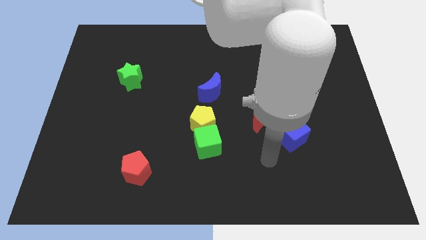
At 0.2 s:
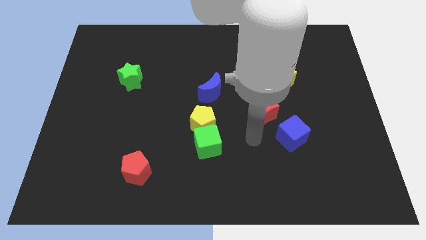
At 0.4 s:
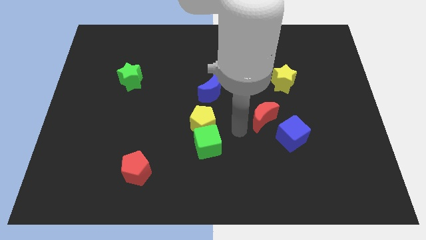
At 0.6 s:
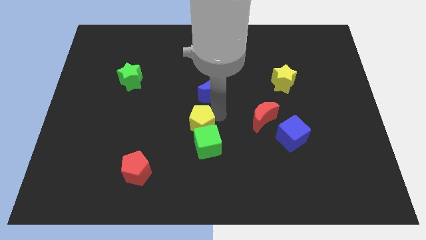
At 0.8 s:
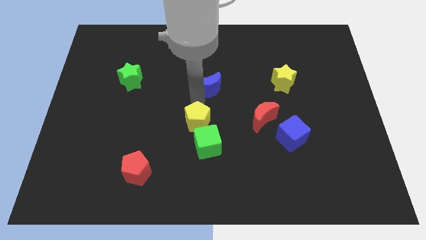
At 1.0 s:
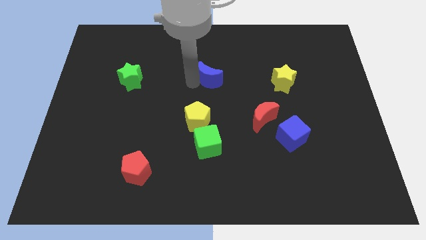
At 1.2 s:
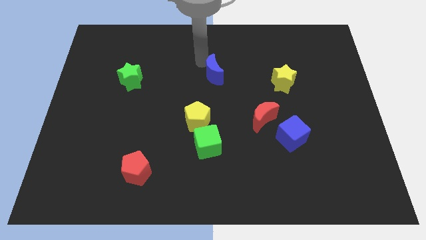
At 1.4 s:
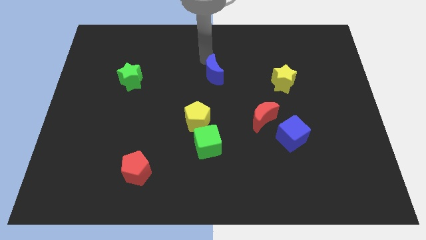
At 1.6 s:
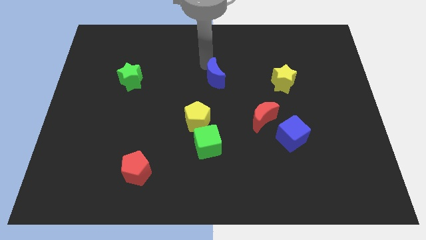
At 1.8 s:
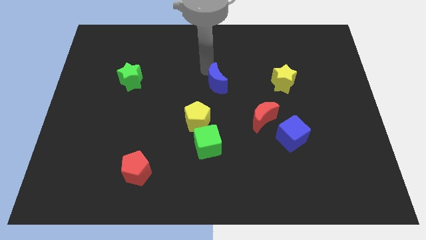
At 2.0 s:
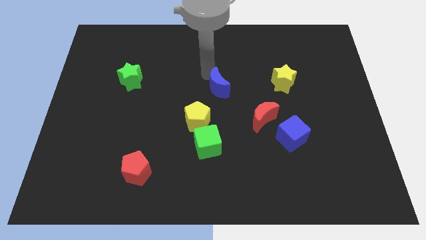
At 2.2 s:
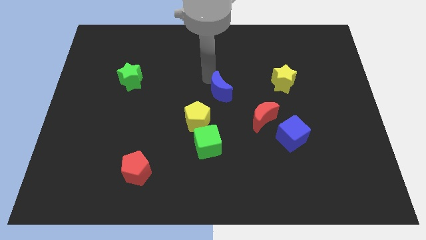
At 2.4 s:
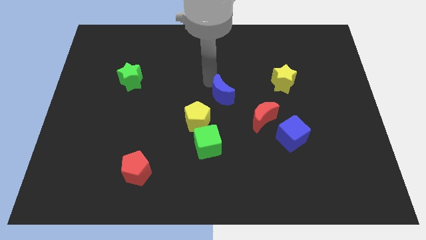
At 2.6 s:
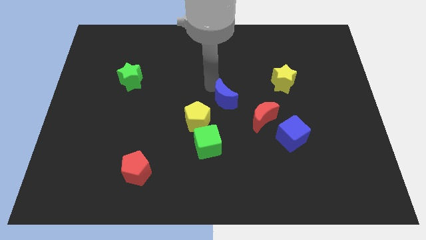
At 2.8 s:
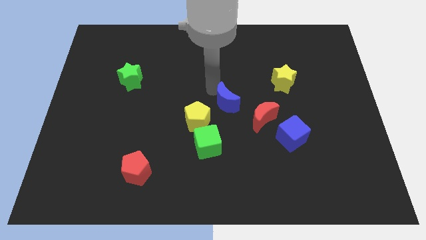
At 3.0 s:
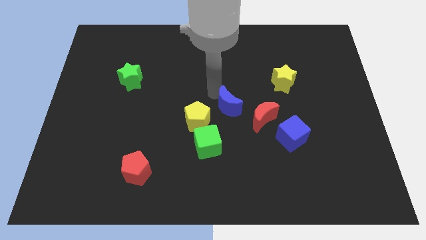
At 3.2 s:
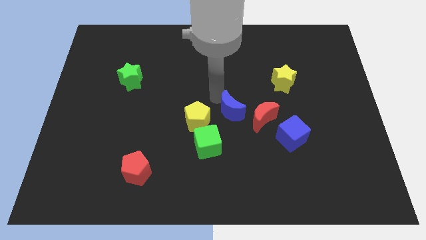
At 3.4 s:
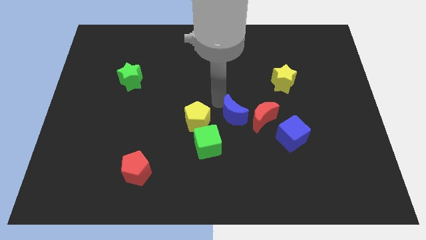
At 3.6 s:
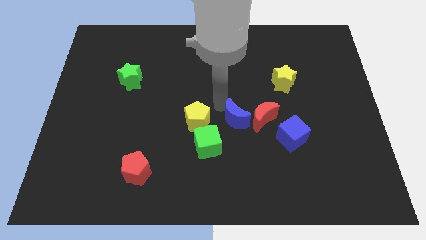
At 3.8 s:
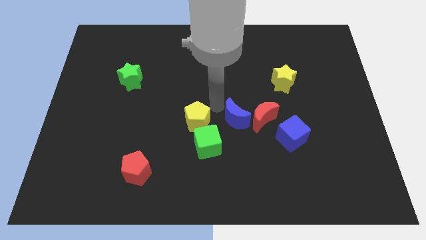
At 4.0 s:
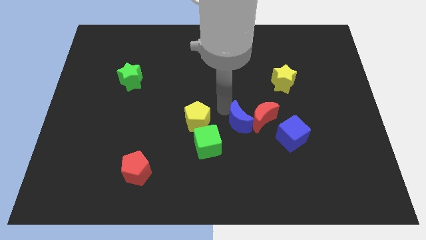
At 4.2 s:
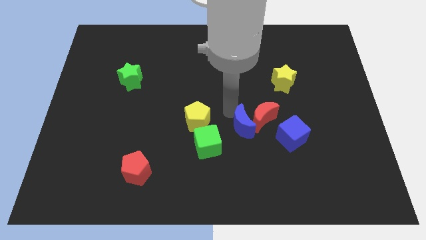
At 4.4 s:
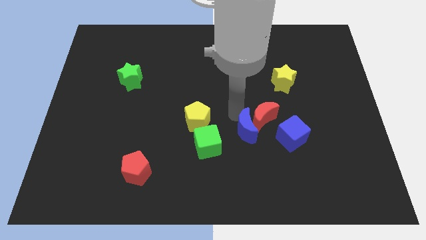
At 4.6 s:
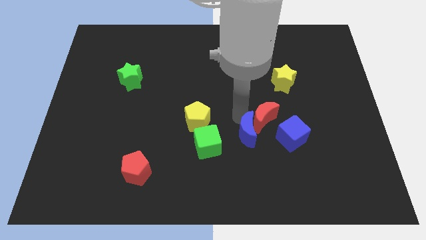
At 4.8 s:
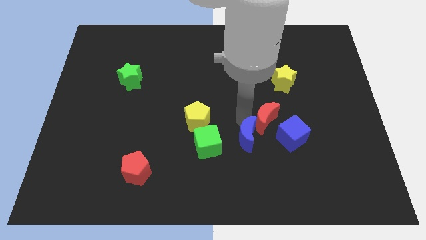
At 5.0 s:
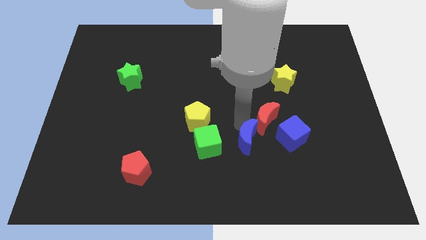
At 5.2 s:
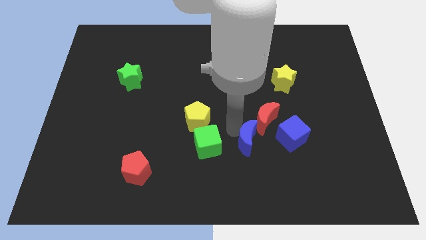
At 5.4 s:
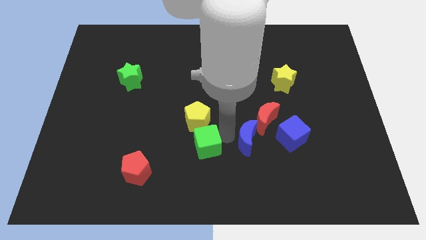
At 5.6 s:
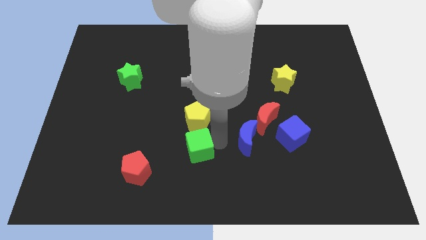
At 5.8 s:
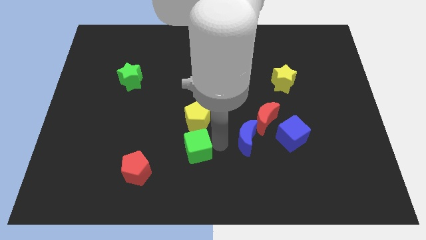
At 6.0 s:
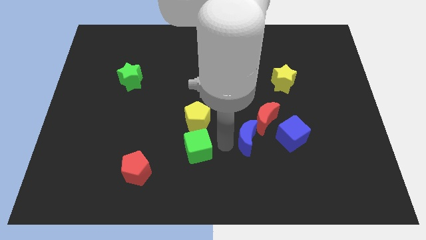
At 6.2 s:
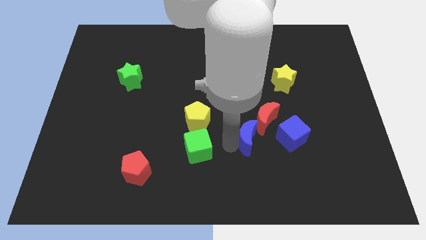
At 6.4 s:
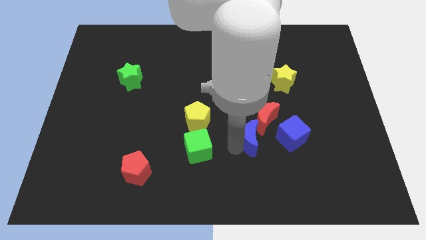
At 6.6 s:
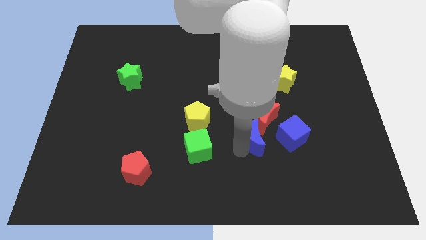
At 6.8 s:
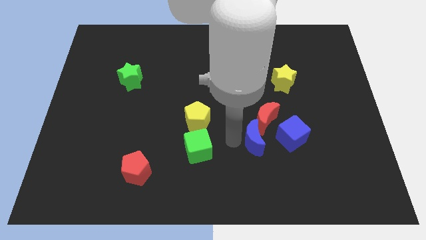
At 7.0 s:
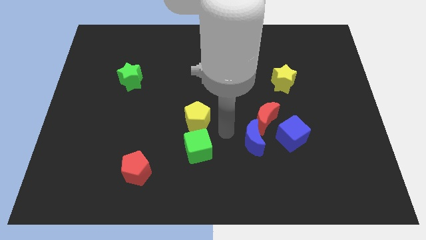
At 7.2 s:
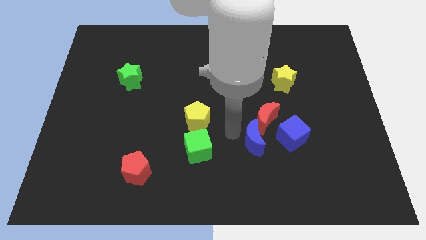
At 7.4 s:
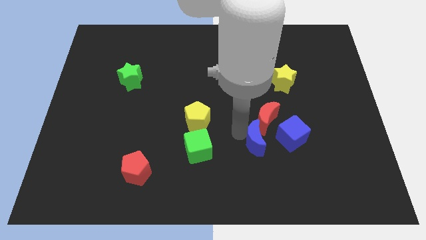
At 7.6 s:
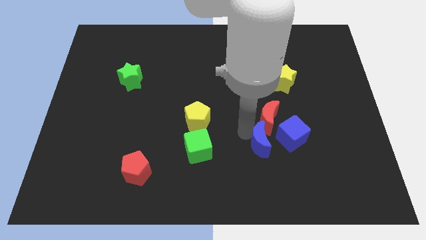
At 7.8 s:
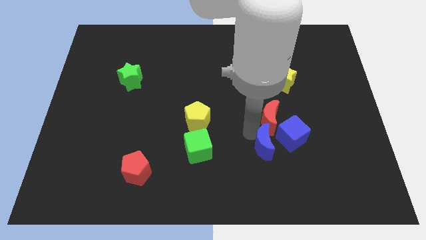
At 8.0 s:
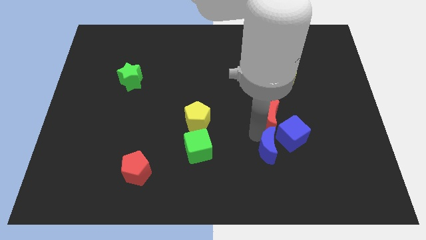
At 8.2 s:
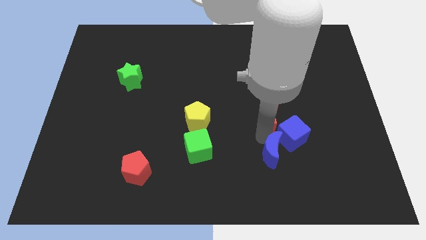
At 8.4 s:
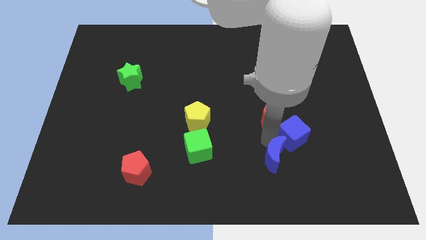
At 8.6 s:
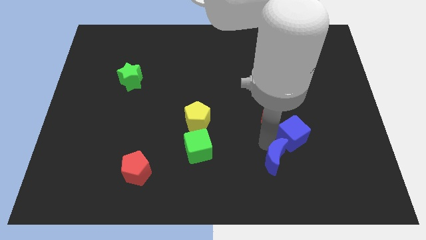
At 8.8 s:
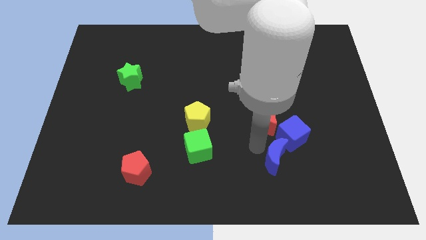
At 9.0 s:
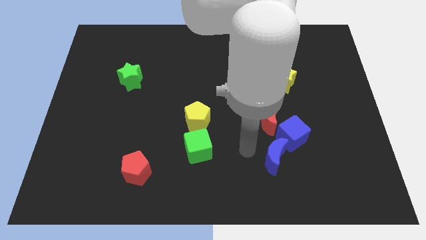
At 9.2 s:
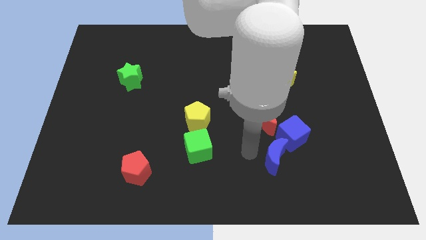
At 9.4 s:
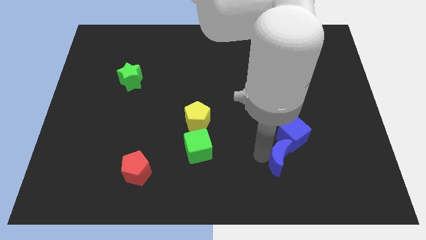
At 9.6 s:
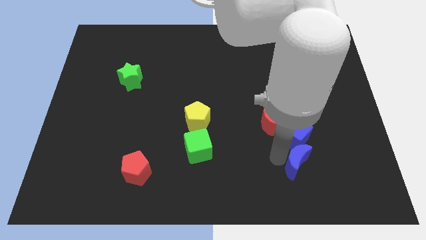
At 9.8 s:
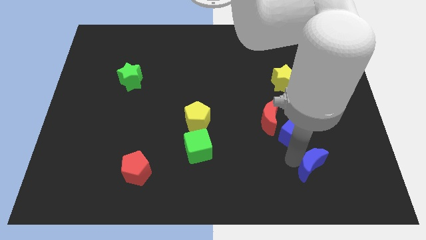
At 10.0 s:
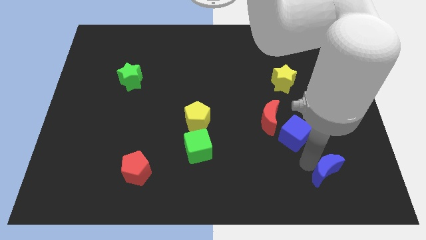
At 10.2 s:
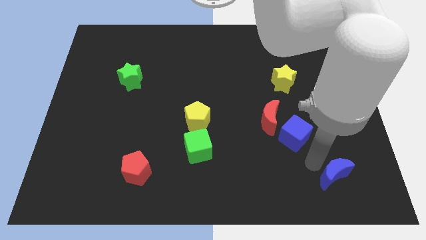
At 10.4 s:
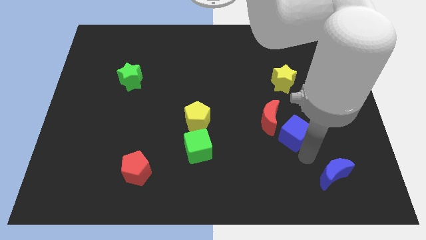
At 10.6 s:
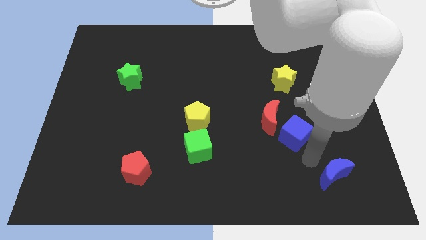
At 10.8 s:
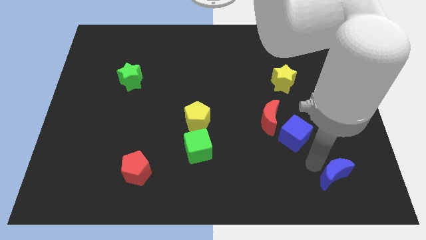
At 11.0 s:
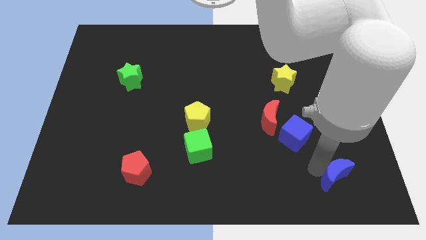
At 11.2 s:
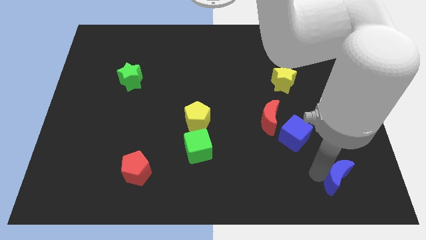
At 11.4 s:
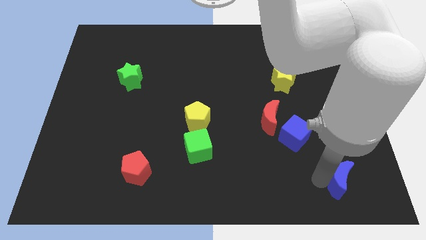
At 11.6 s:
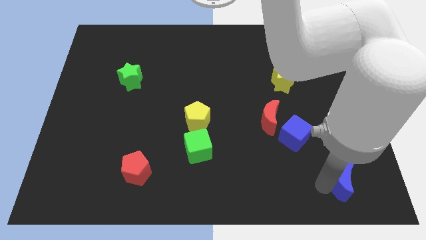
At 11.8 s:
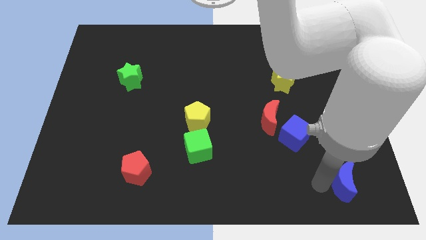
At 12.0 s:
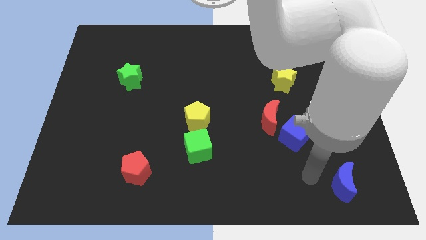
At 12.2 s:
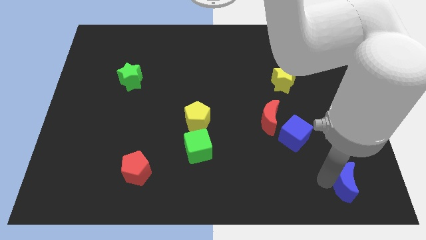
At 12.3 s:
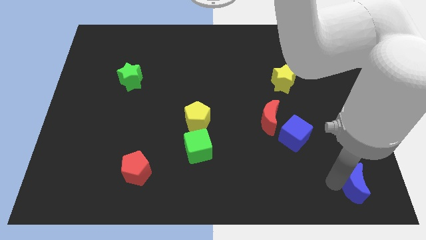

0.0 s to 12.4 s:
put the blue moon to the lower right corner
